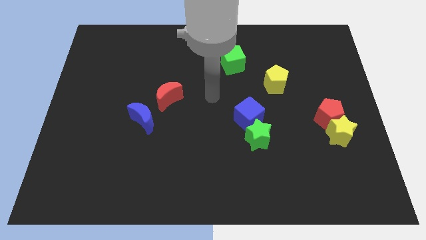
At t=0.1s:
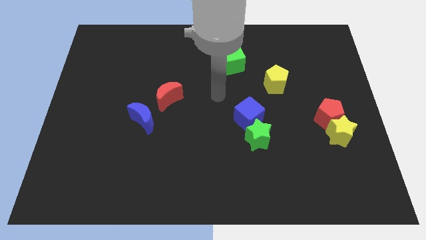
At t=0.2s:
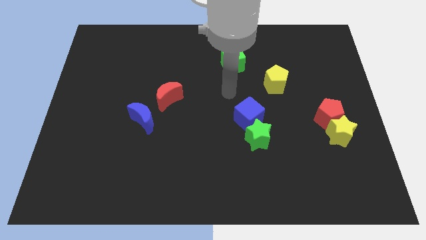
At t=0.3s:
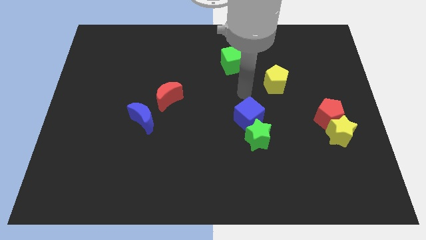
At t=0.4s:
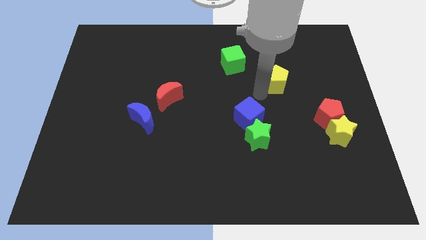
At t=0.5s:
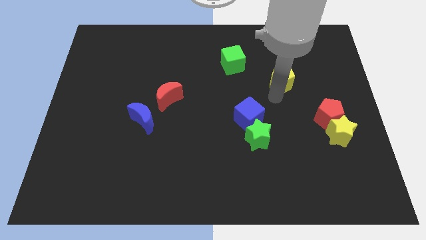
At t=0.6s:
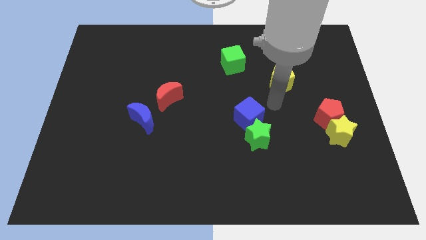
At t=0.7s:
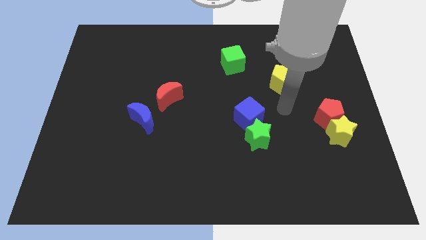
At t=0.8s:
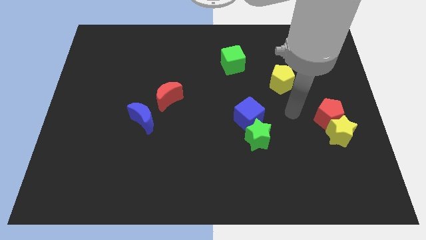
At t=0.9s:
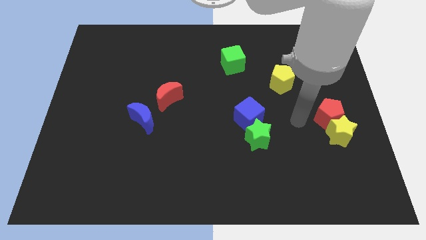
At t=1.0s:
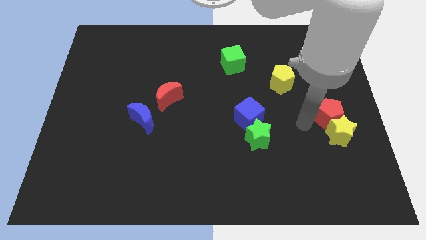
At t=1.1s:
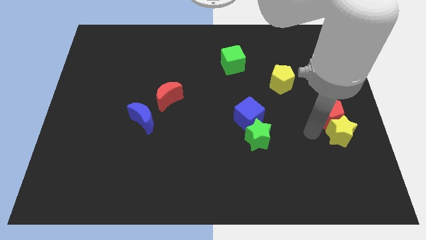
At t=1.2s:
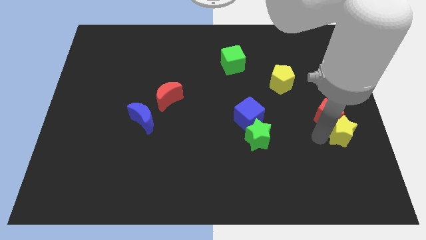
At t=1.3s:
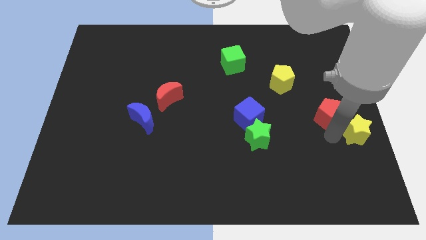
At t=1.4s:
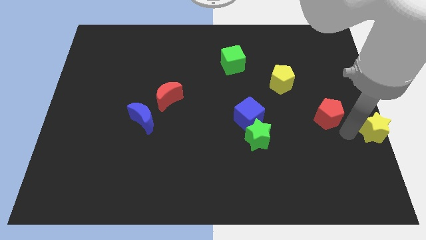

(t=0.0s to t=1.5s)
move the red pentagon away from the yellow star

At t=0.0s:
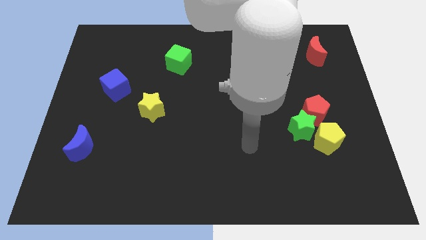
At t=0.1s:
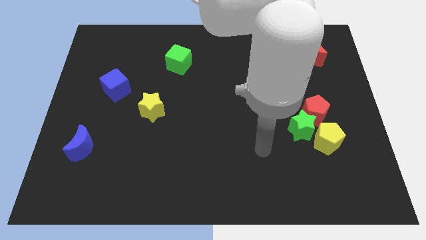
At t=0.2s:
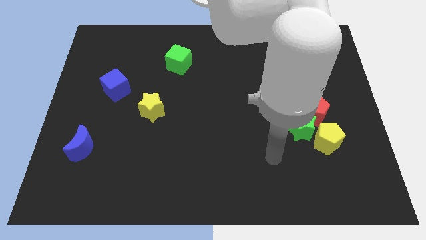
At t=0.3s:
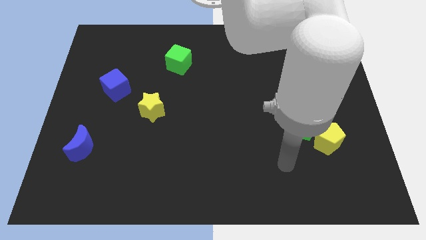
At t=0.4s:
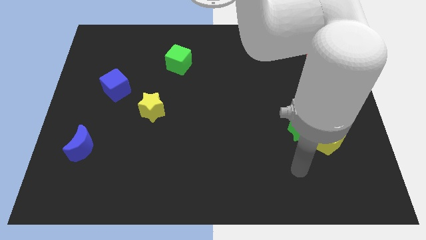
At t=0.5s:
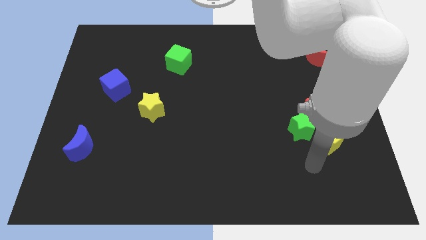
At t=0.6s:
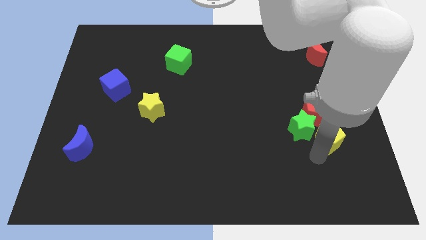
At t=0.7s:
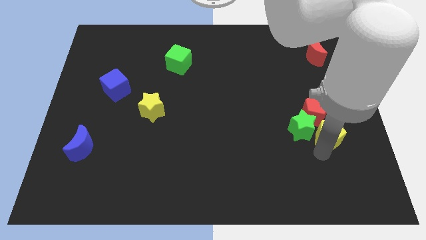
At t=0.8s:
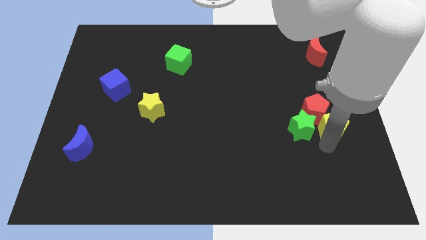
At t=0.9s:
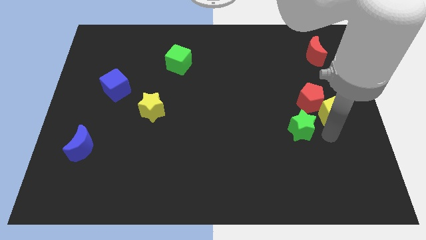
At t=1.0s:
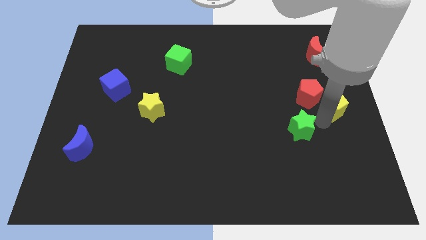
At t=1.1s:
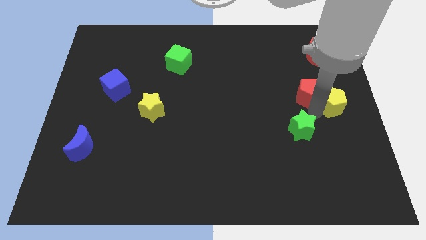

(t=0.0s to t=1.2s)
move the green star away from the red pentagon and yellow pentagon

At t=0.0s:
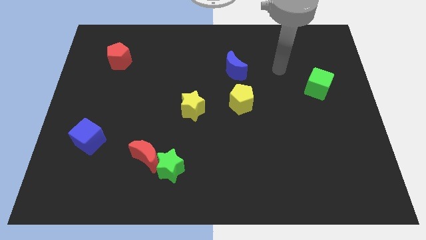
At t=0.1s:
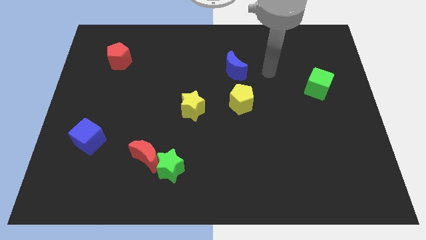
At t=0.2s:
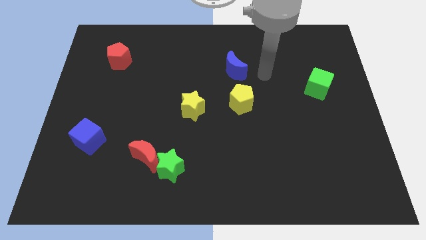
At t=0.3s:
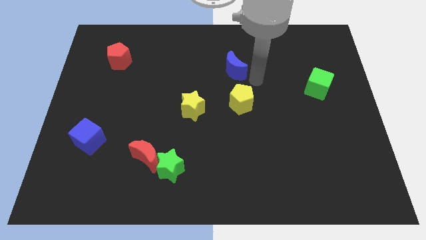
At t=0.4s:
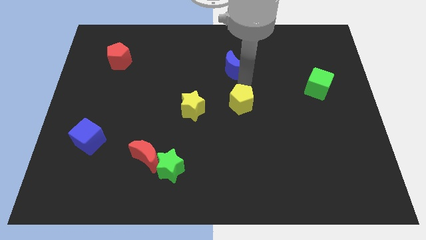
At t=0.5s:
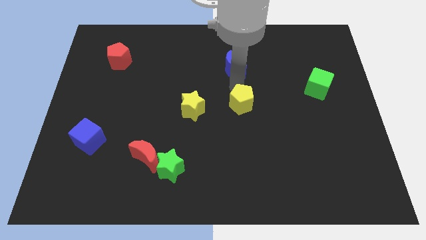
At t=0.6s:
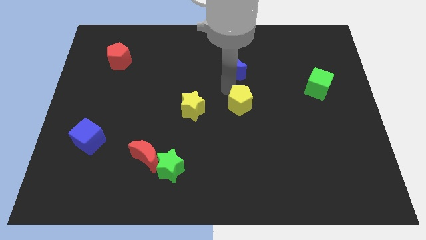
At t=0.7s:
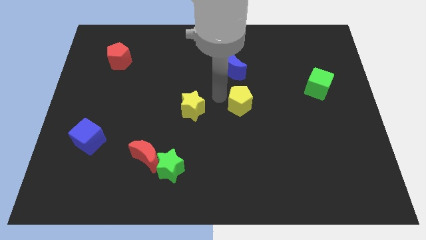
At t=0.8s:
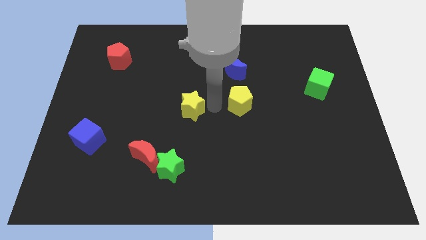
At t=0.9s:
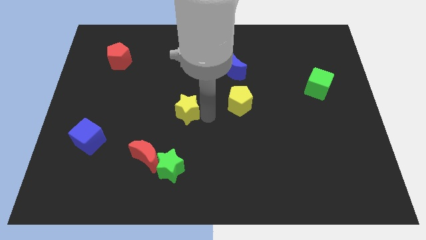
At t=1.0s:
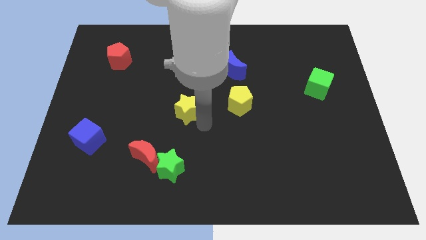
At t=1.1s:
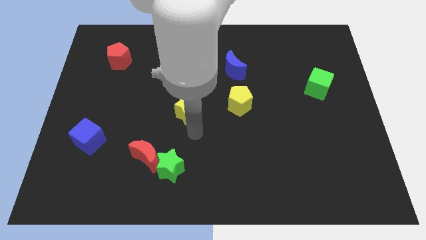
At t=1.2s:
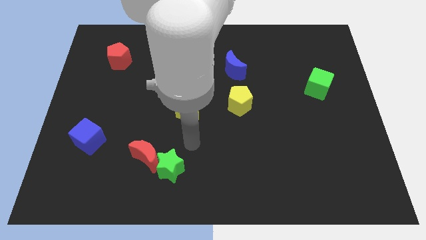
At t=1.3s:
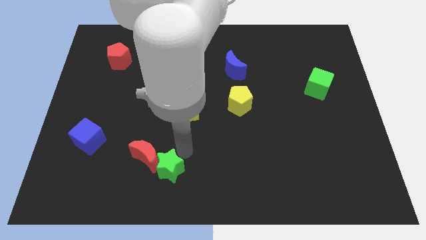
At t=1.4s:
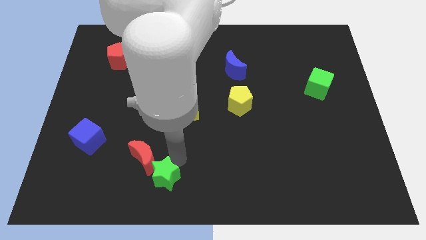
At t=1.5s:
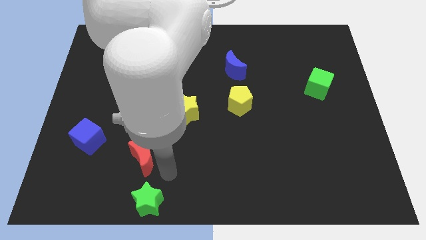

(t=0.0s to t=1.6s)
separate the red moon from the green star

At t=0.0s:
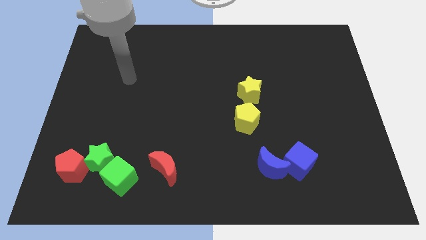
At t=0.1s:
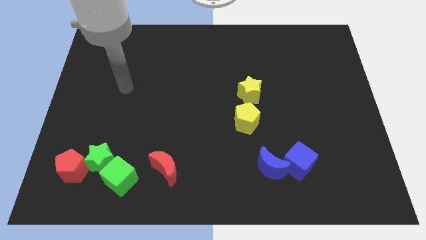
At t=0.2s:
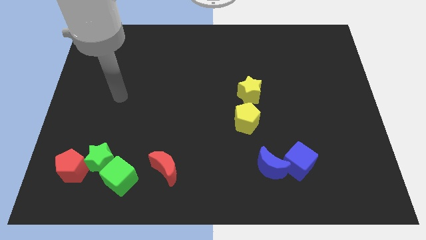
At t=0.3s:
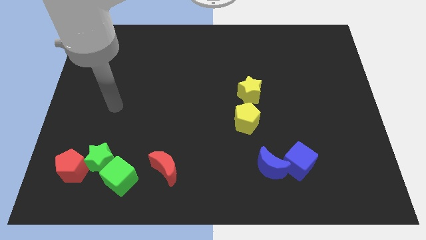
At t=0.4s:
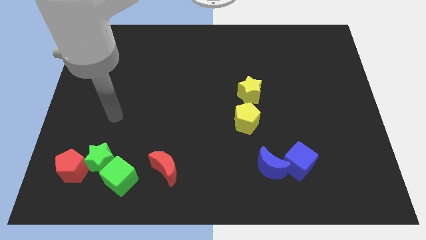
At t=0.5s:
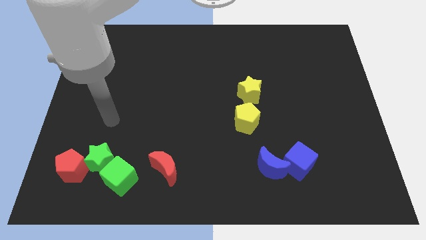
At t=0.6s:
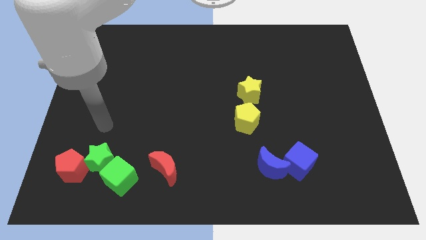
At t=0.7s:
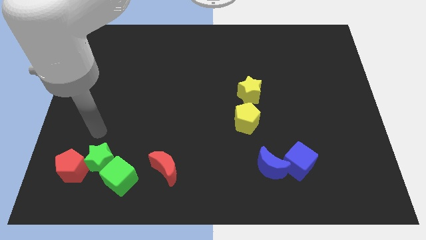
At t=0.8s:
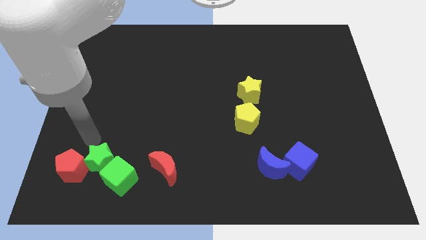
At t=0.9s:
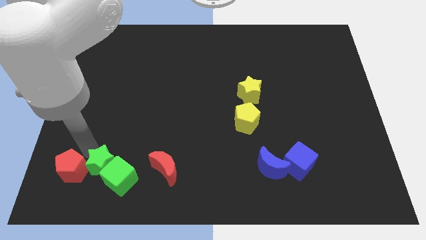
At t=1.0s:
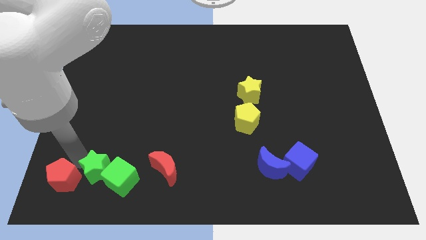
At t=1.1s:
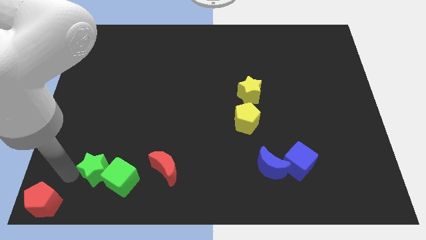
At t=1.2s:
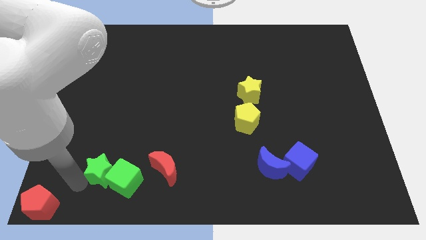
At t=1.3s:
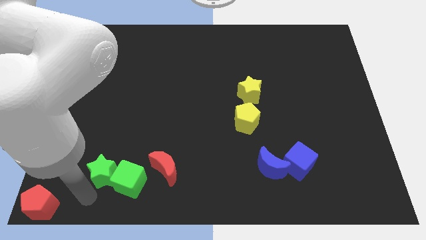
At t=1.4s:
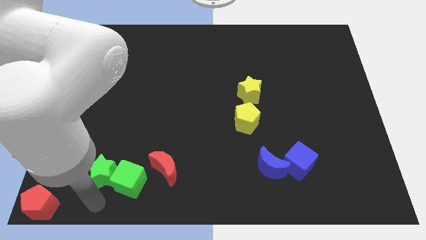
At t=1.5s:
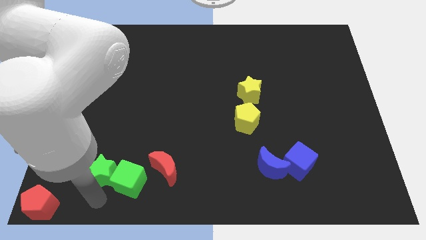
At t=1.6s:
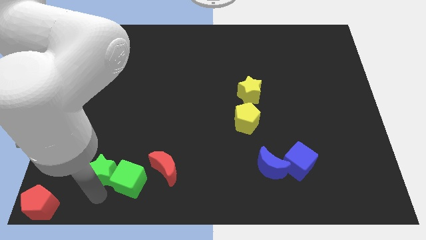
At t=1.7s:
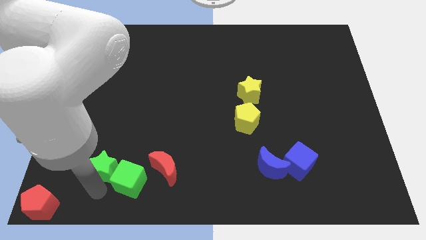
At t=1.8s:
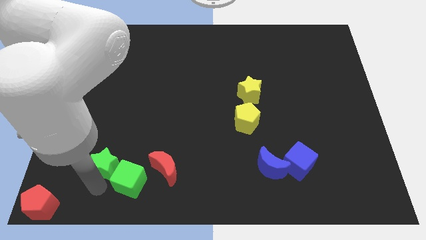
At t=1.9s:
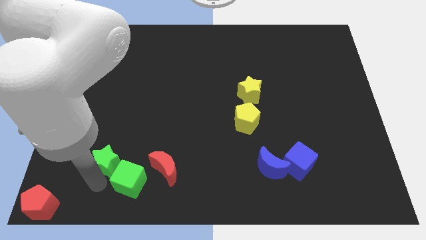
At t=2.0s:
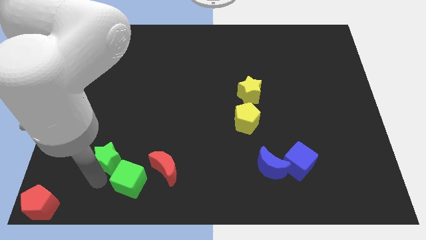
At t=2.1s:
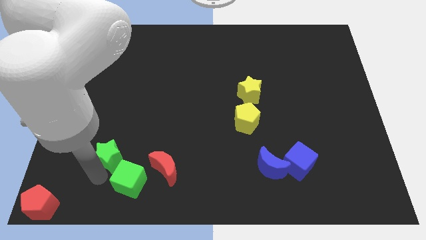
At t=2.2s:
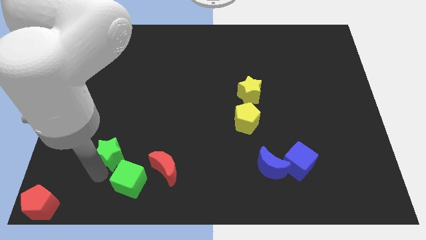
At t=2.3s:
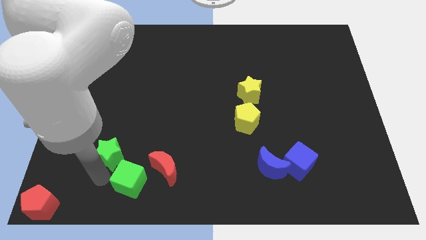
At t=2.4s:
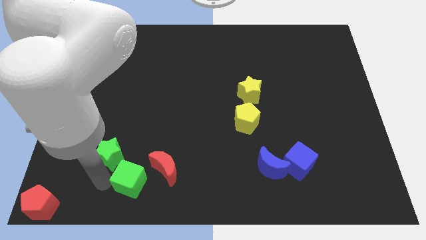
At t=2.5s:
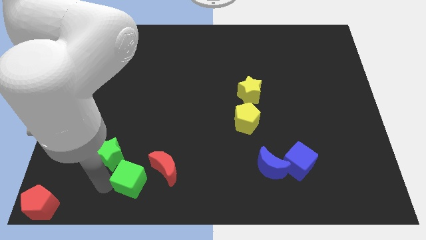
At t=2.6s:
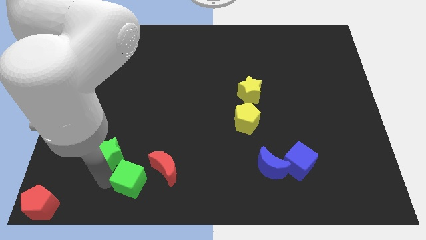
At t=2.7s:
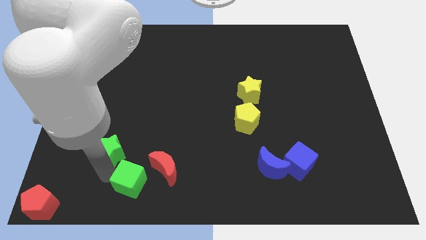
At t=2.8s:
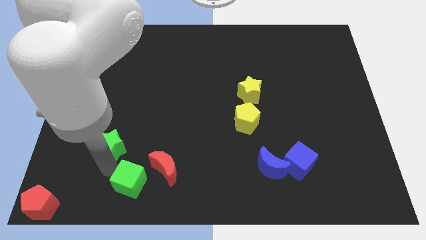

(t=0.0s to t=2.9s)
move the green star away from the green cube and red pentagon

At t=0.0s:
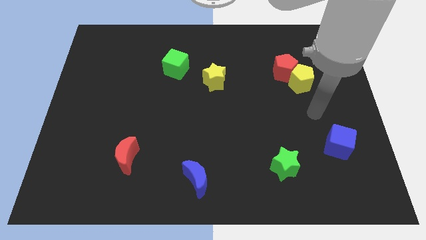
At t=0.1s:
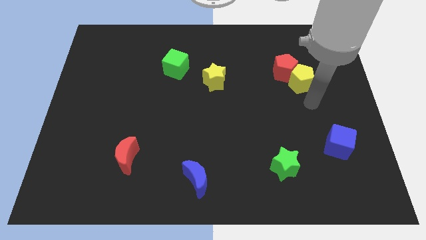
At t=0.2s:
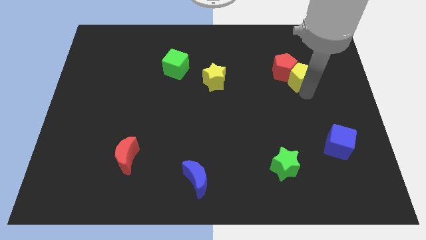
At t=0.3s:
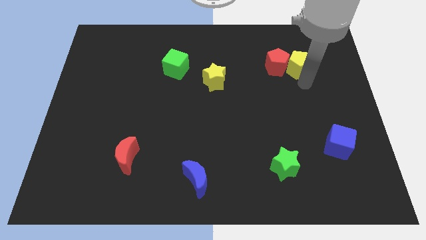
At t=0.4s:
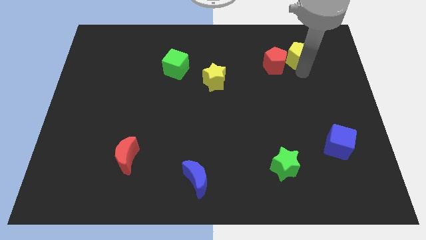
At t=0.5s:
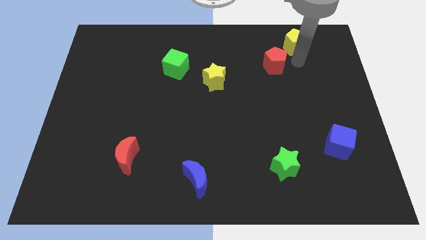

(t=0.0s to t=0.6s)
move the red pentagon away from the yellow pentagon

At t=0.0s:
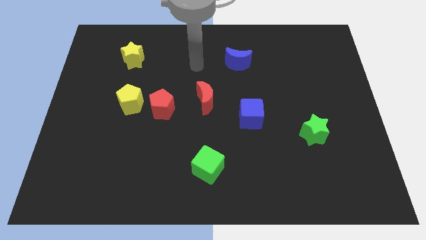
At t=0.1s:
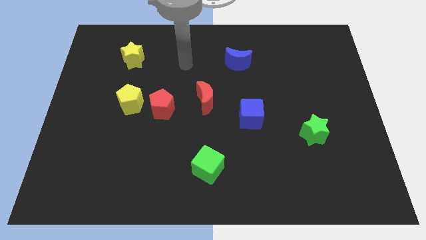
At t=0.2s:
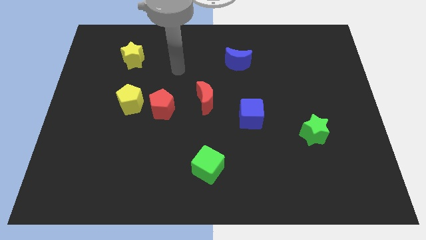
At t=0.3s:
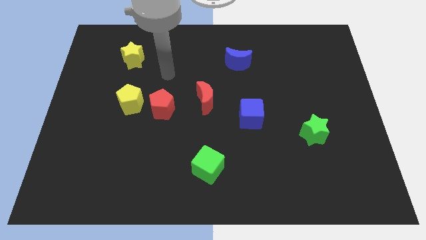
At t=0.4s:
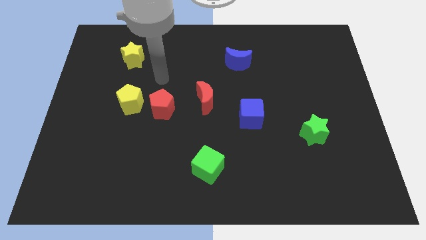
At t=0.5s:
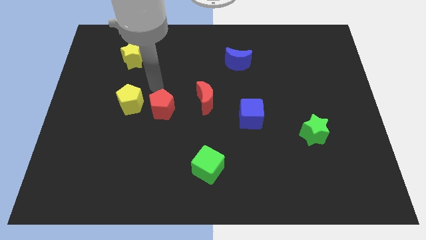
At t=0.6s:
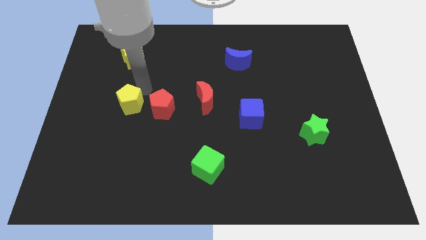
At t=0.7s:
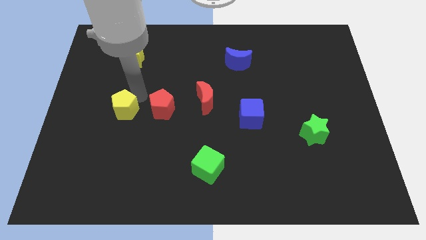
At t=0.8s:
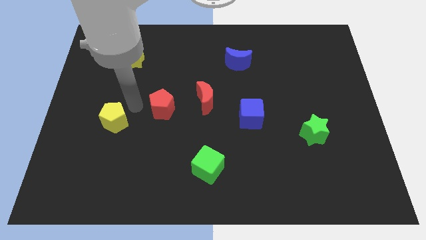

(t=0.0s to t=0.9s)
pull the red pentagon apart from the yellow pentagon

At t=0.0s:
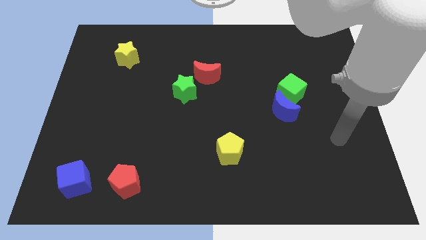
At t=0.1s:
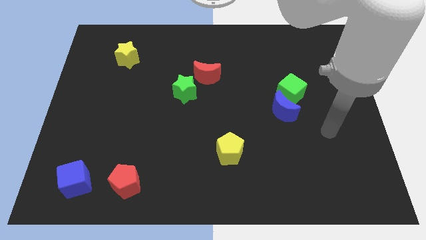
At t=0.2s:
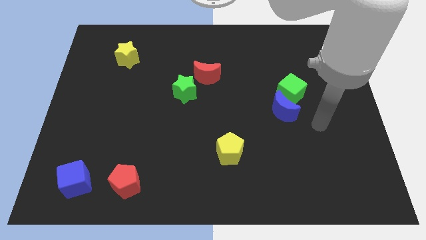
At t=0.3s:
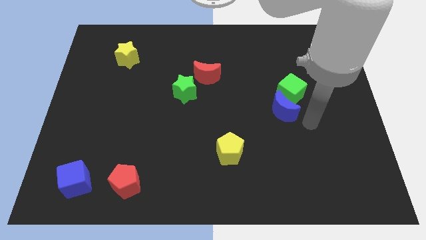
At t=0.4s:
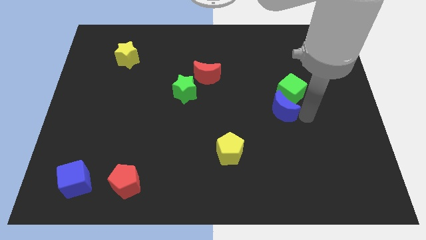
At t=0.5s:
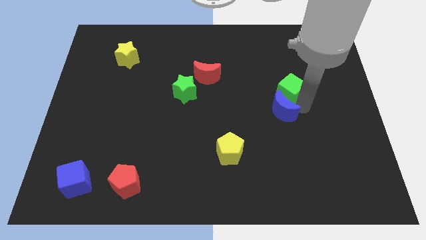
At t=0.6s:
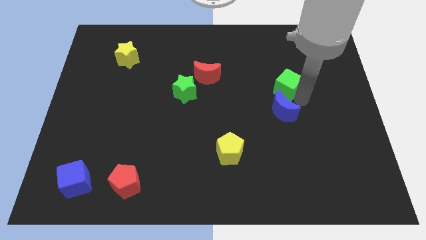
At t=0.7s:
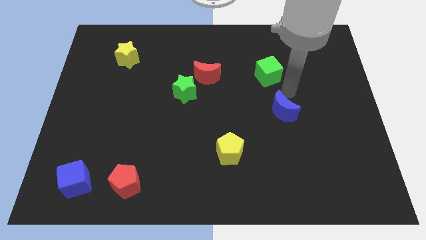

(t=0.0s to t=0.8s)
separate the blue moon from the green cube
